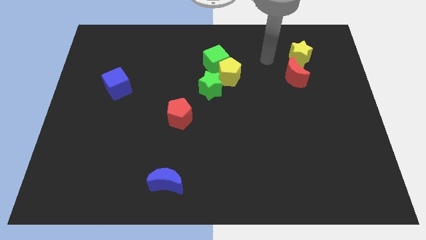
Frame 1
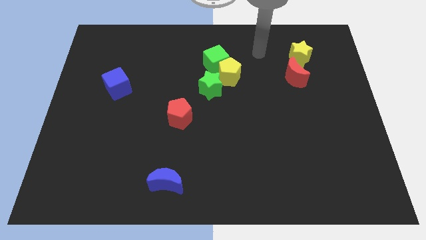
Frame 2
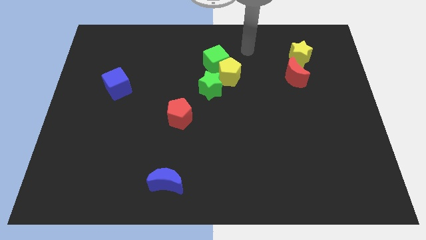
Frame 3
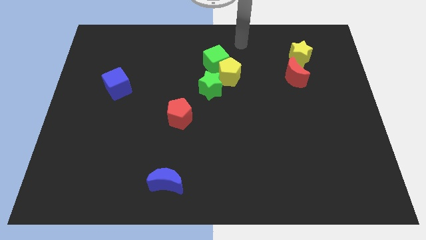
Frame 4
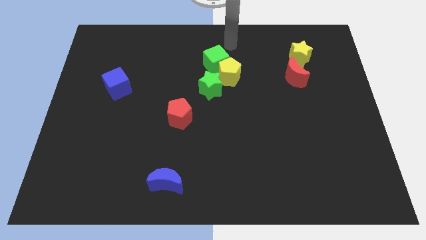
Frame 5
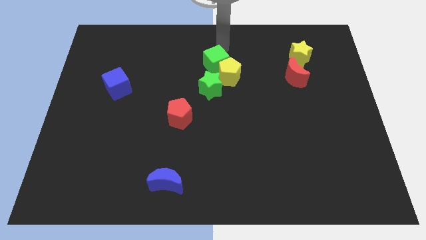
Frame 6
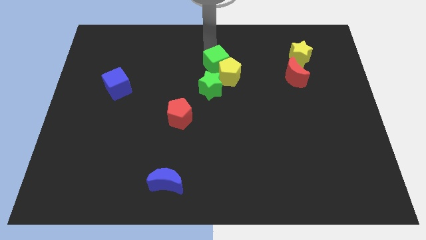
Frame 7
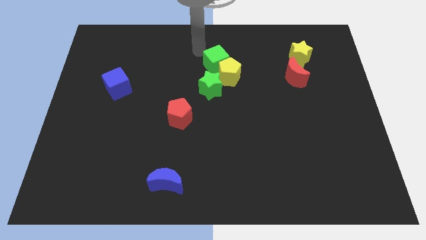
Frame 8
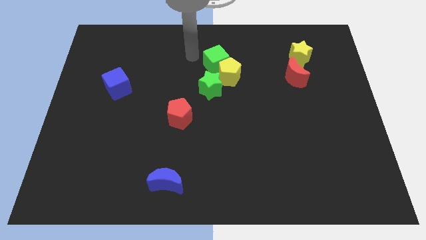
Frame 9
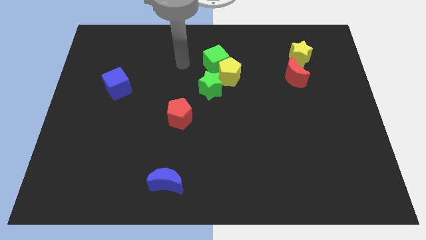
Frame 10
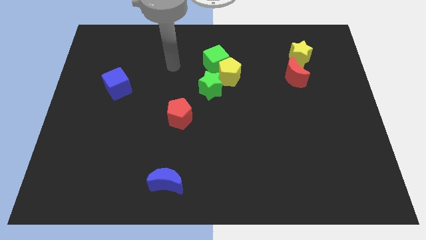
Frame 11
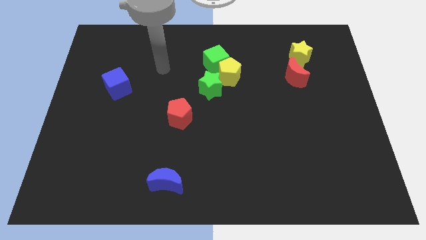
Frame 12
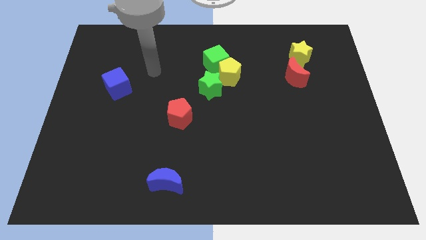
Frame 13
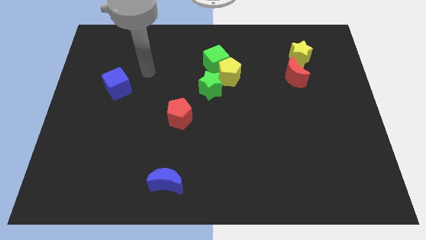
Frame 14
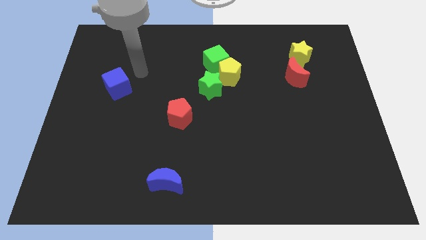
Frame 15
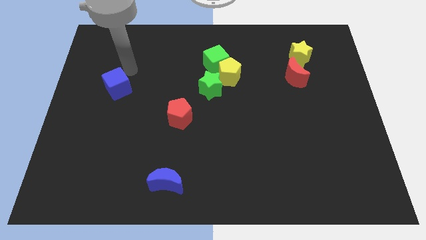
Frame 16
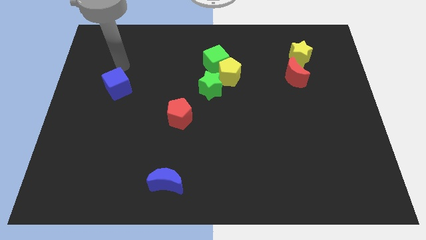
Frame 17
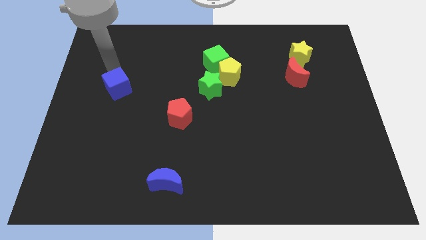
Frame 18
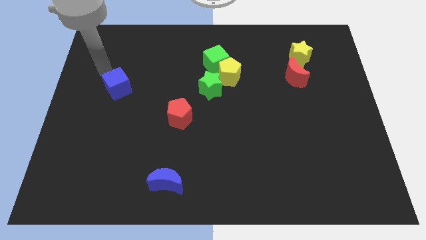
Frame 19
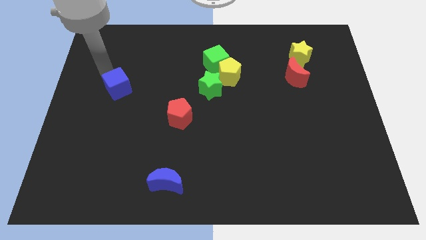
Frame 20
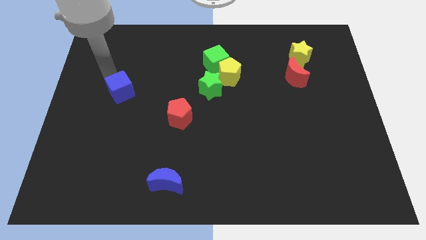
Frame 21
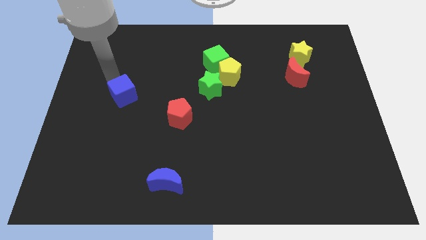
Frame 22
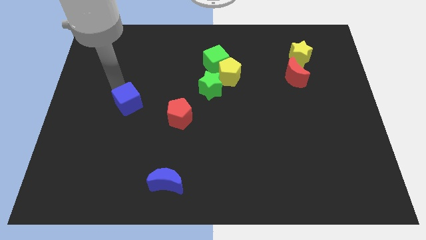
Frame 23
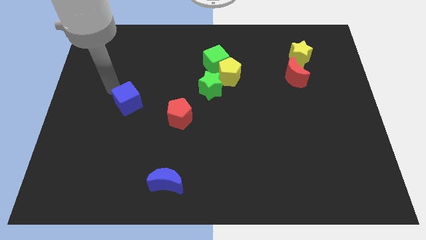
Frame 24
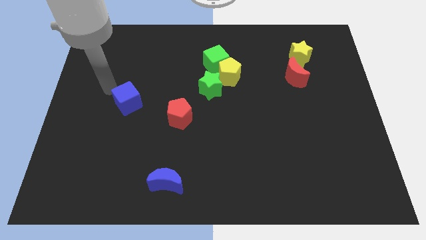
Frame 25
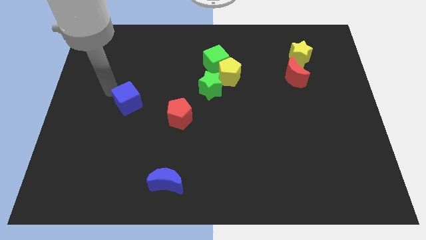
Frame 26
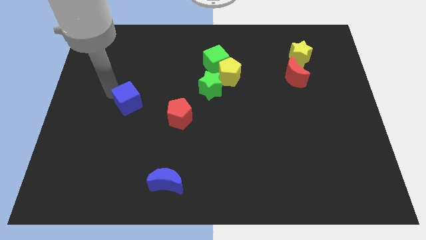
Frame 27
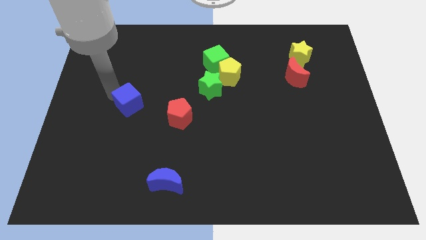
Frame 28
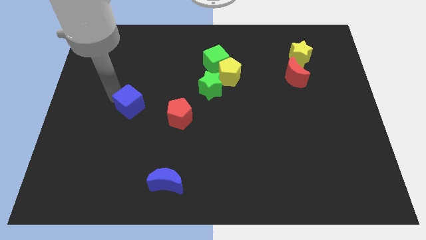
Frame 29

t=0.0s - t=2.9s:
slightly slide the blue cube down and right

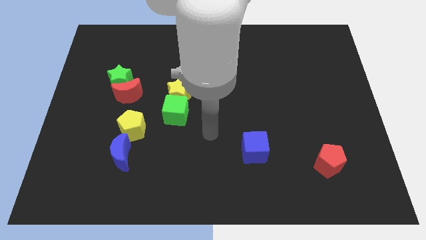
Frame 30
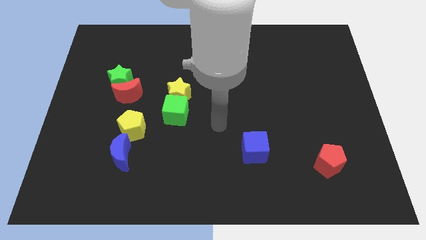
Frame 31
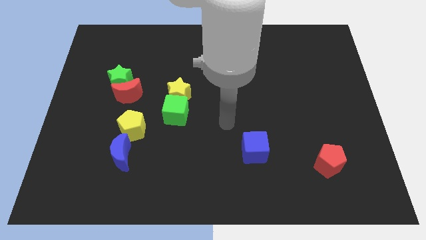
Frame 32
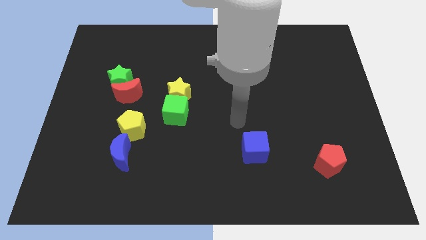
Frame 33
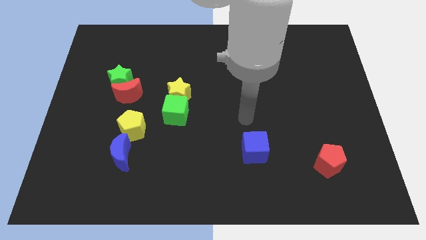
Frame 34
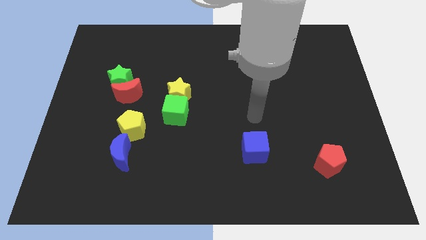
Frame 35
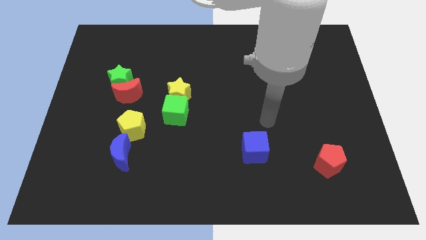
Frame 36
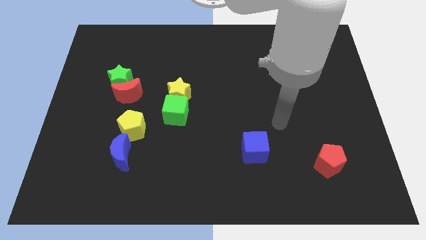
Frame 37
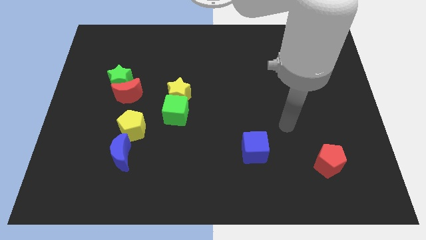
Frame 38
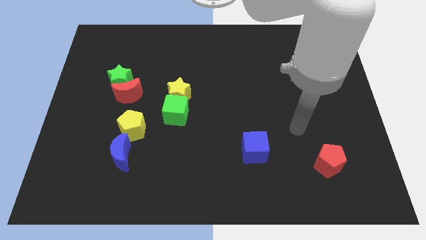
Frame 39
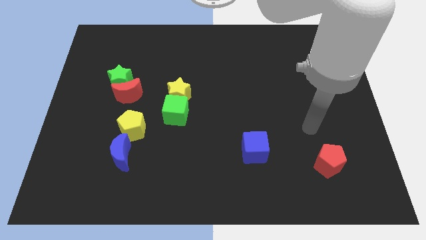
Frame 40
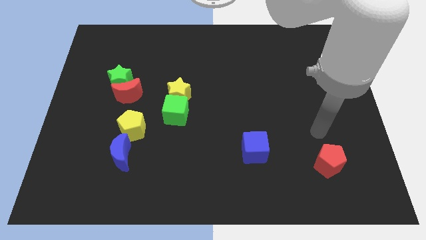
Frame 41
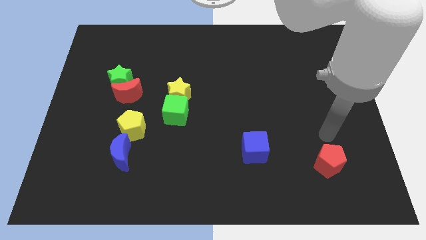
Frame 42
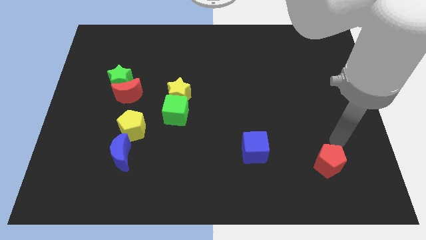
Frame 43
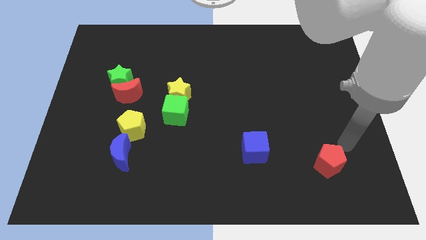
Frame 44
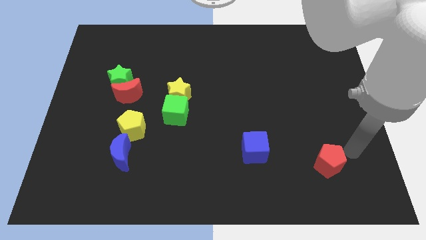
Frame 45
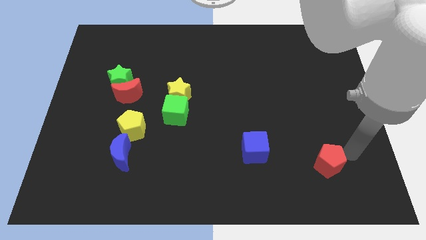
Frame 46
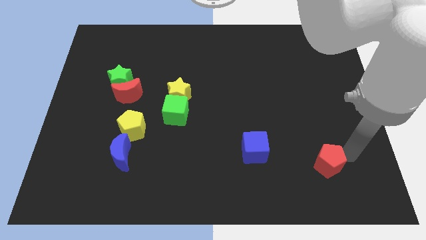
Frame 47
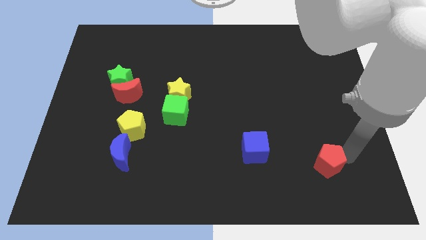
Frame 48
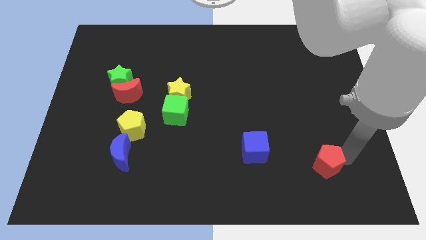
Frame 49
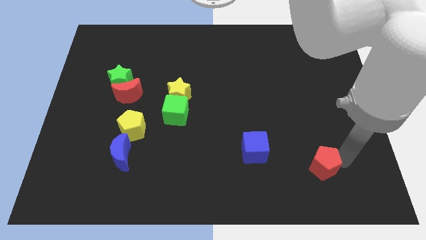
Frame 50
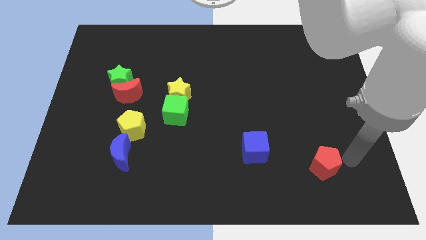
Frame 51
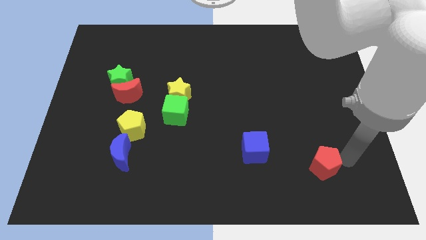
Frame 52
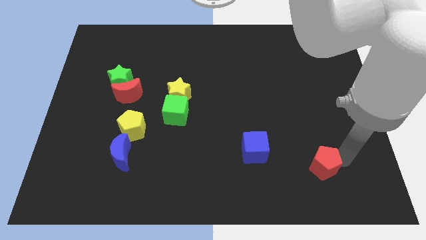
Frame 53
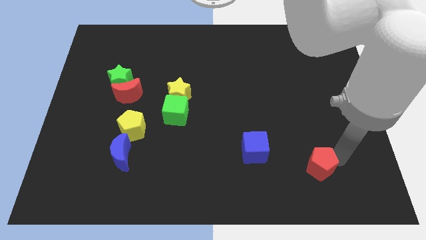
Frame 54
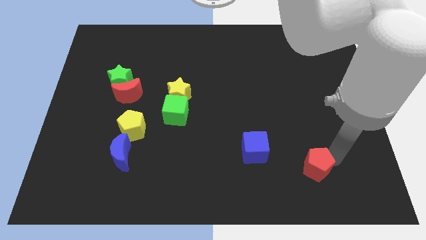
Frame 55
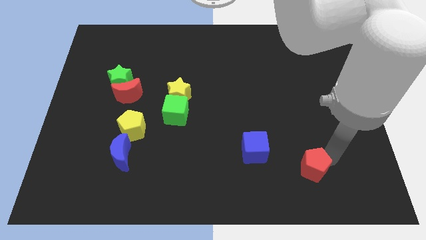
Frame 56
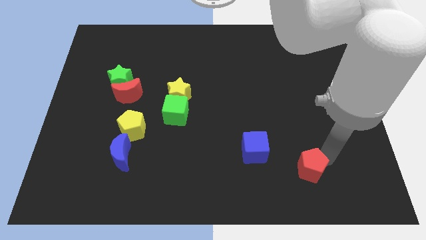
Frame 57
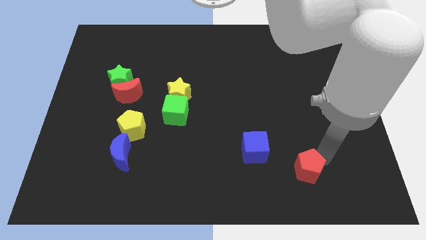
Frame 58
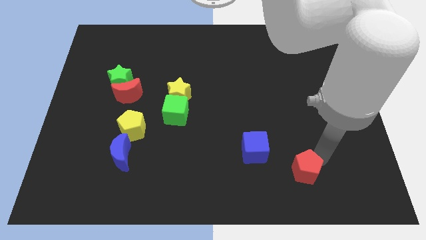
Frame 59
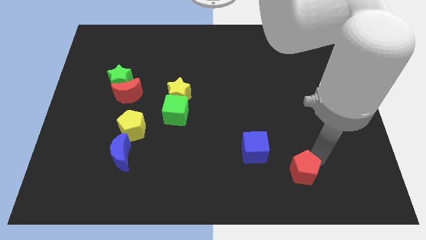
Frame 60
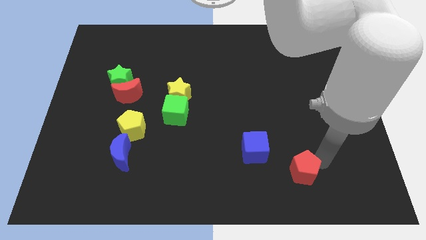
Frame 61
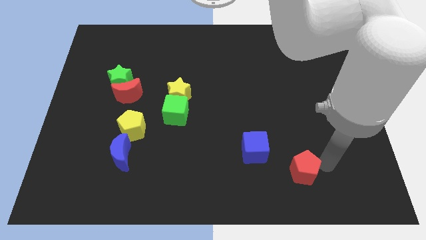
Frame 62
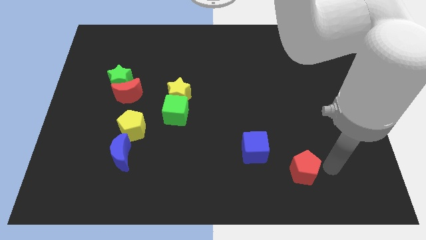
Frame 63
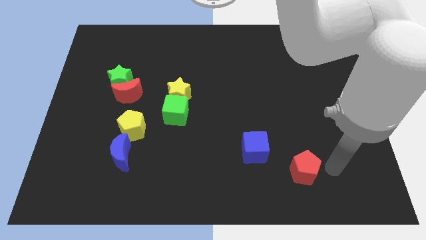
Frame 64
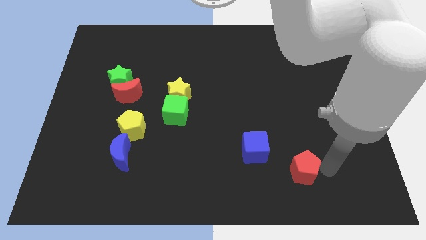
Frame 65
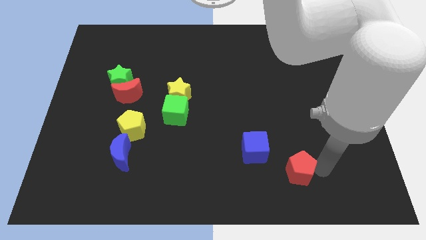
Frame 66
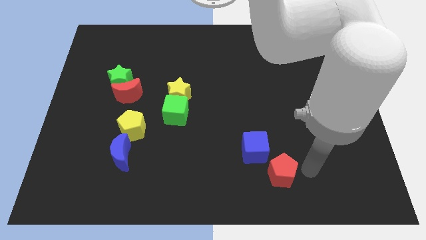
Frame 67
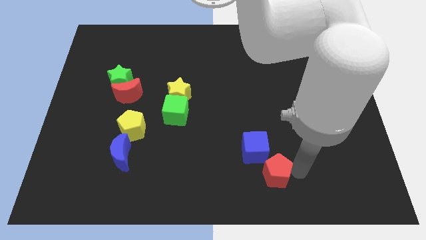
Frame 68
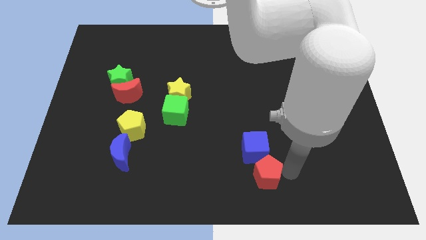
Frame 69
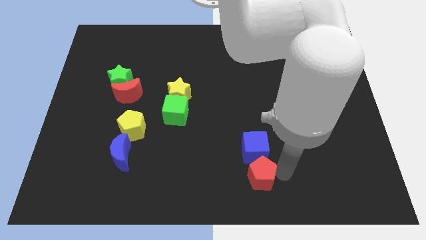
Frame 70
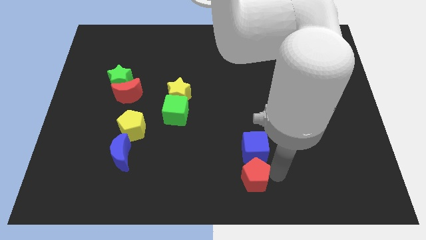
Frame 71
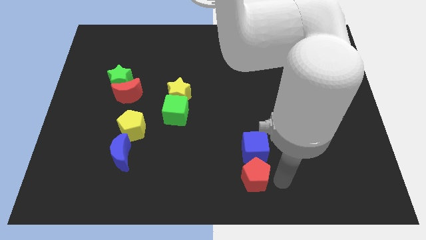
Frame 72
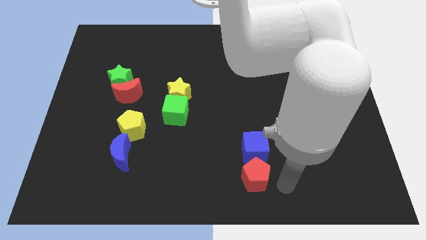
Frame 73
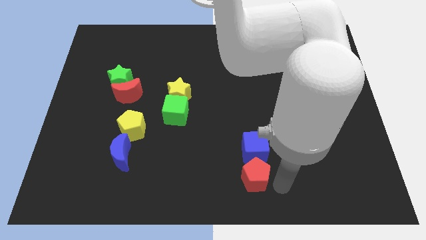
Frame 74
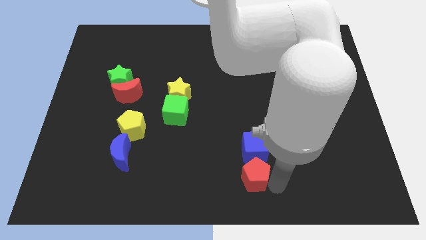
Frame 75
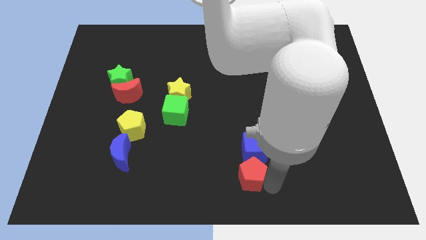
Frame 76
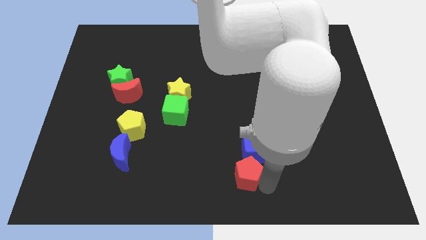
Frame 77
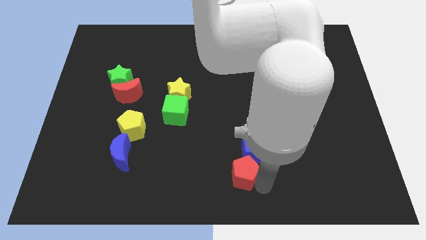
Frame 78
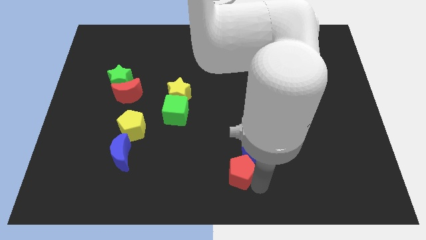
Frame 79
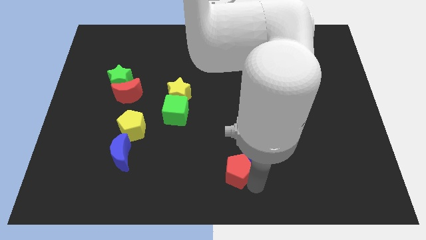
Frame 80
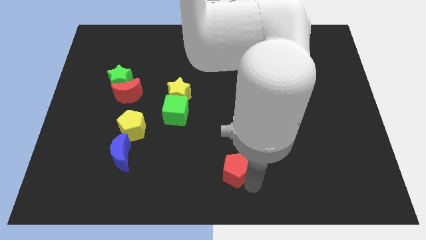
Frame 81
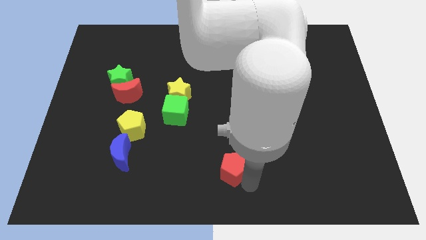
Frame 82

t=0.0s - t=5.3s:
move the red pentagon to the left
